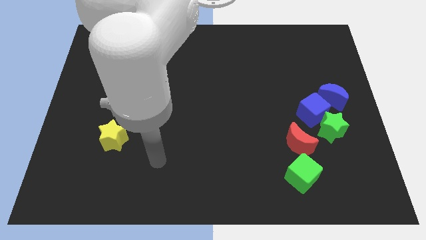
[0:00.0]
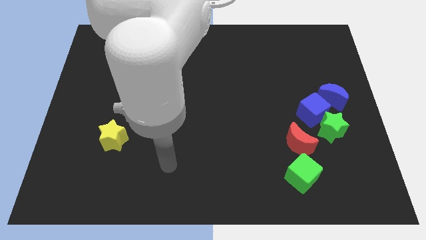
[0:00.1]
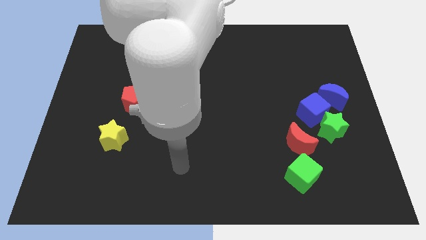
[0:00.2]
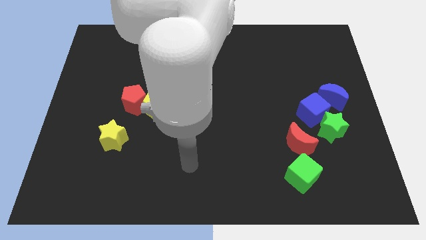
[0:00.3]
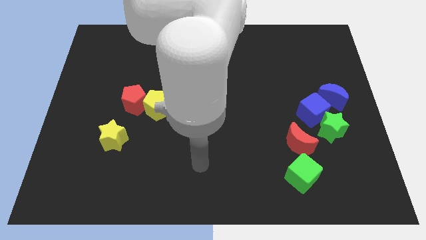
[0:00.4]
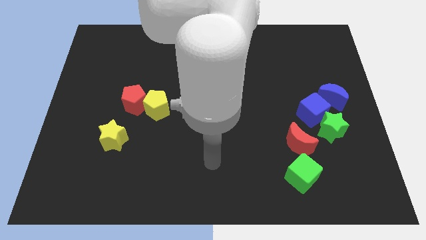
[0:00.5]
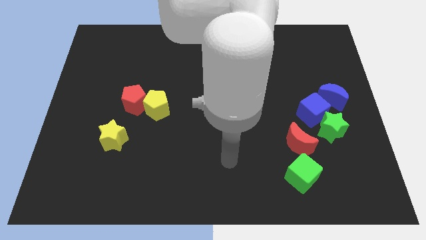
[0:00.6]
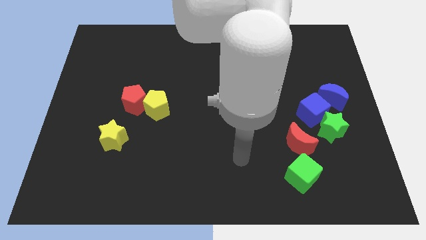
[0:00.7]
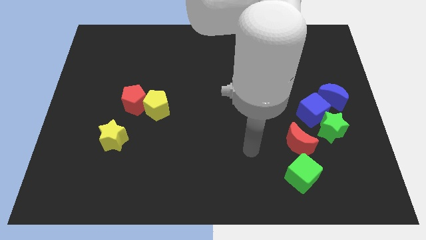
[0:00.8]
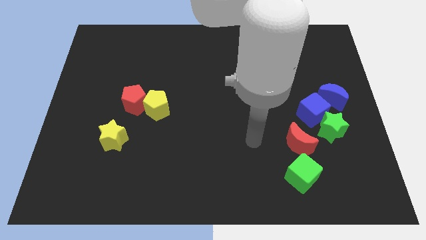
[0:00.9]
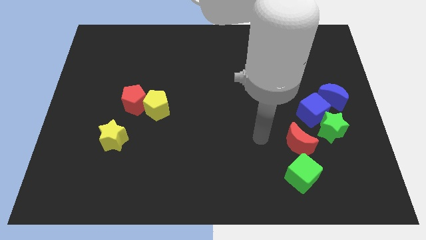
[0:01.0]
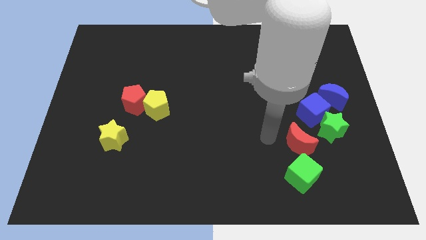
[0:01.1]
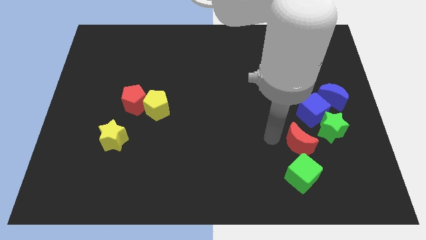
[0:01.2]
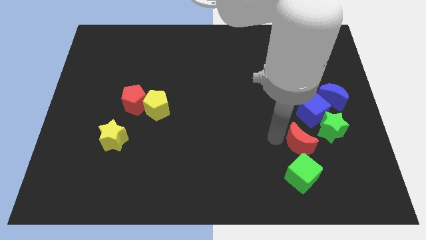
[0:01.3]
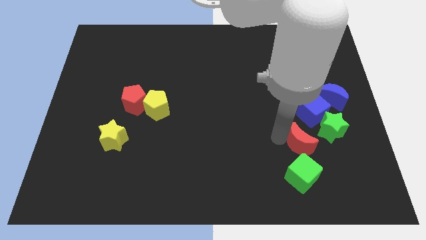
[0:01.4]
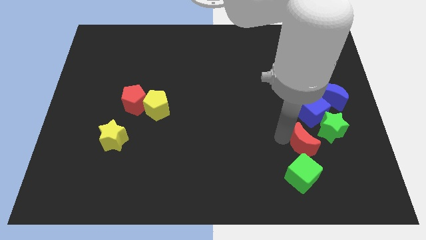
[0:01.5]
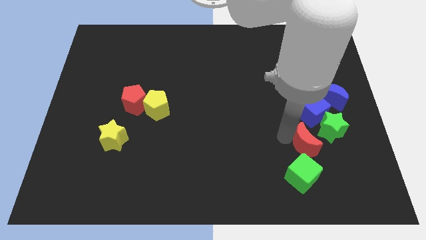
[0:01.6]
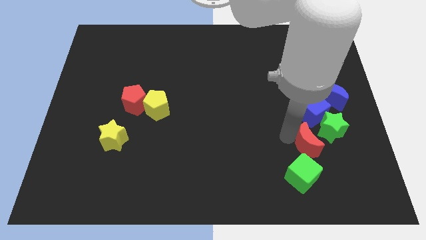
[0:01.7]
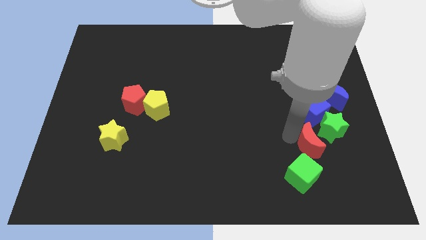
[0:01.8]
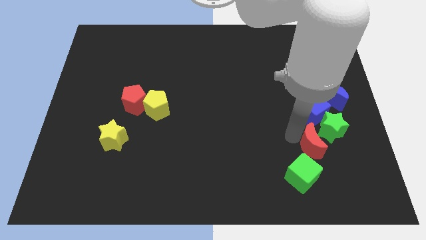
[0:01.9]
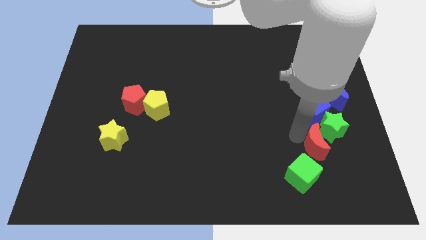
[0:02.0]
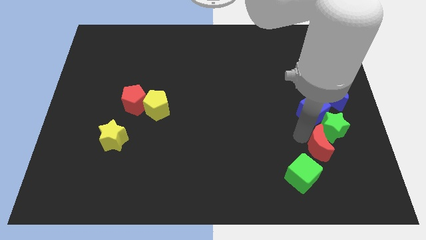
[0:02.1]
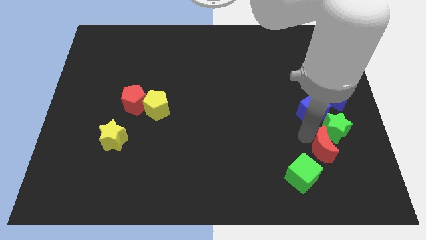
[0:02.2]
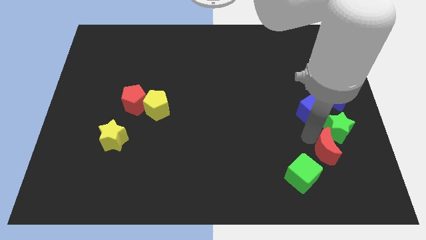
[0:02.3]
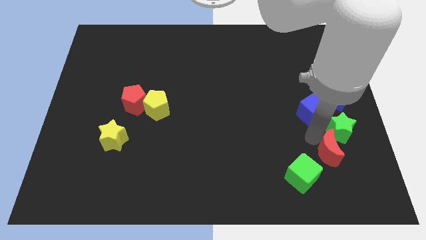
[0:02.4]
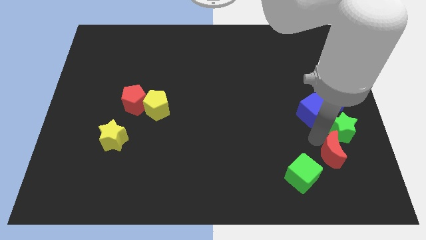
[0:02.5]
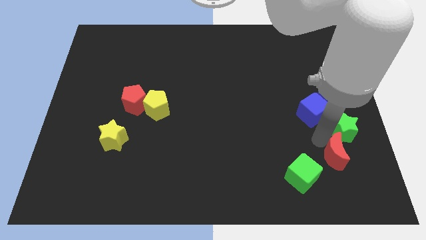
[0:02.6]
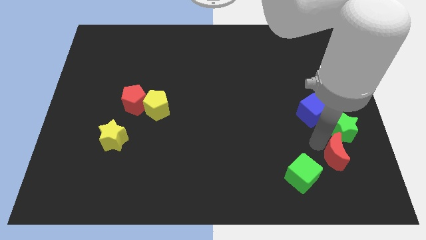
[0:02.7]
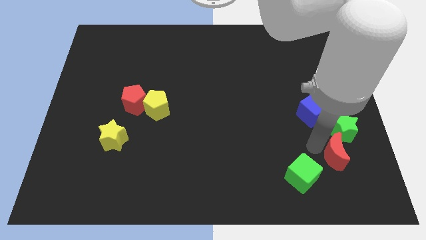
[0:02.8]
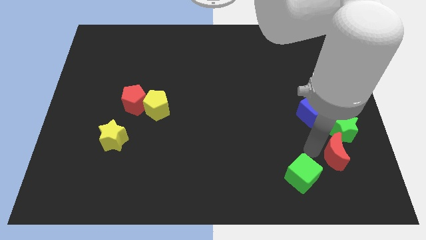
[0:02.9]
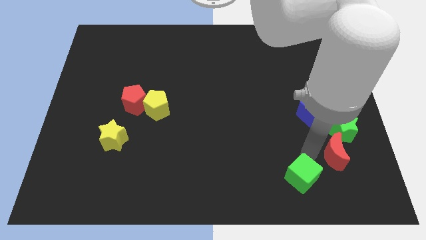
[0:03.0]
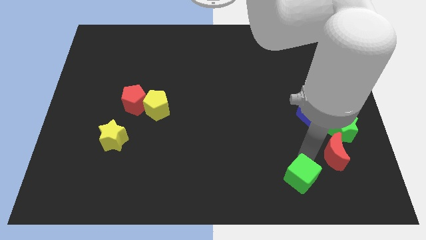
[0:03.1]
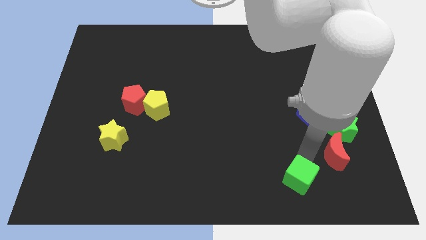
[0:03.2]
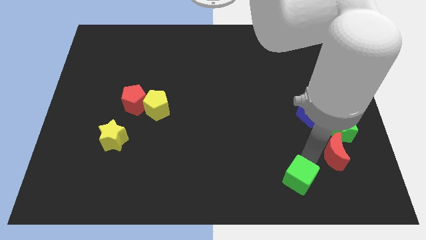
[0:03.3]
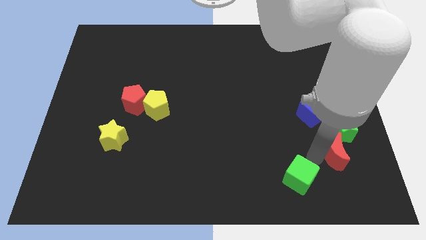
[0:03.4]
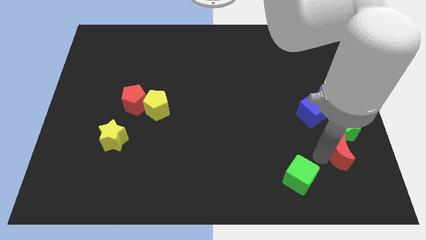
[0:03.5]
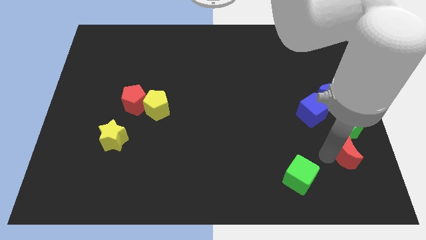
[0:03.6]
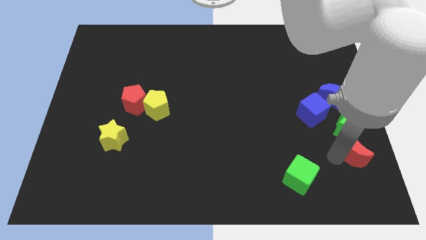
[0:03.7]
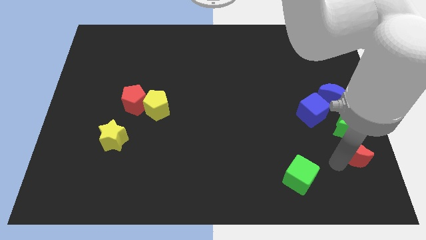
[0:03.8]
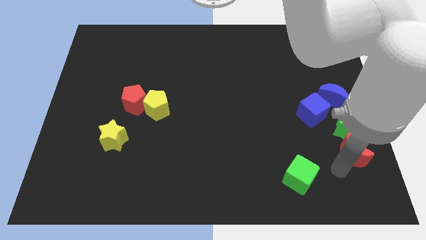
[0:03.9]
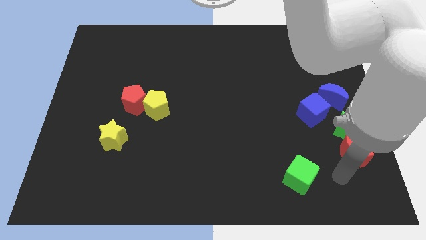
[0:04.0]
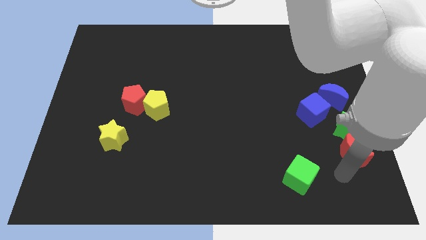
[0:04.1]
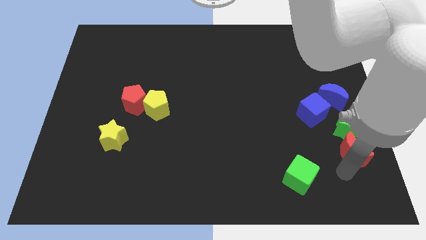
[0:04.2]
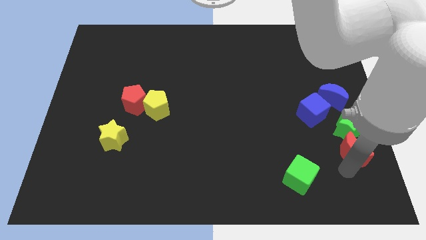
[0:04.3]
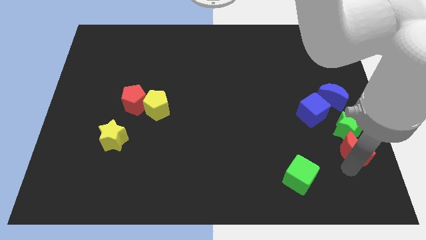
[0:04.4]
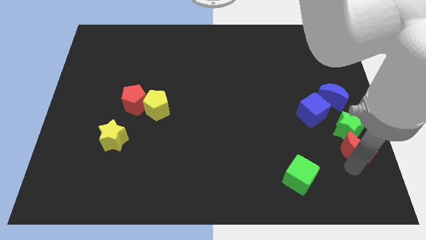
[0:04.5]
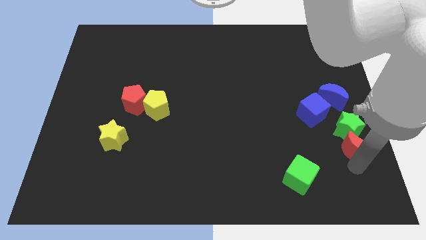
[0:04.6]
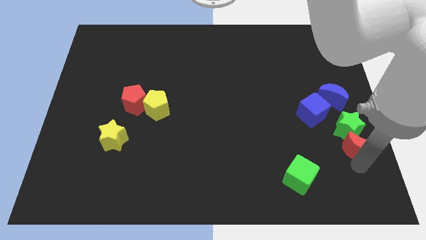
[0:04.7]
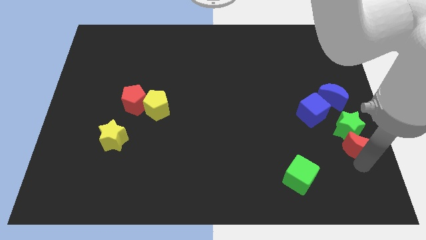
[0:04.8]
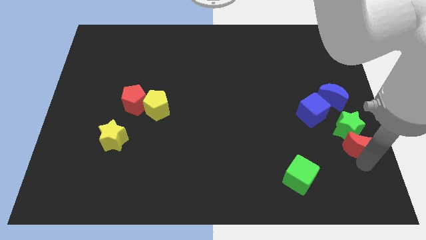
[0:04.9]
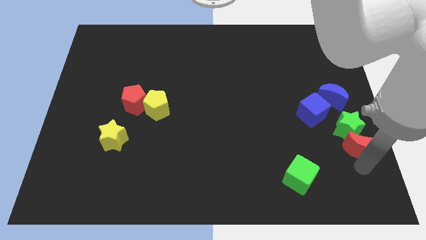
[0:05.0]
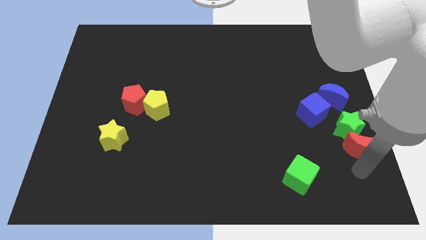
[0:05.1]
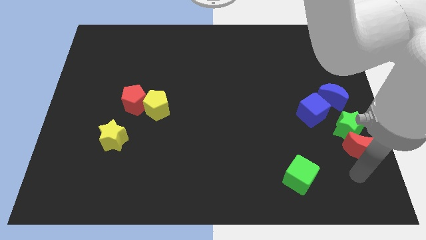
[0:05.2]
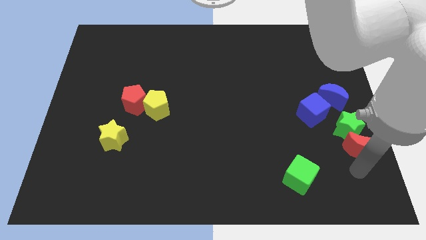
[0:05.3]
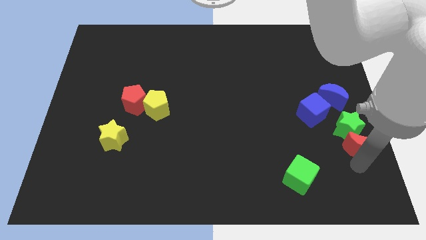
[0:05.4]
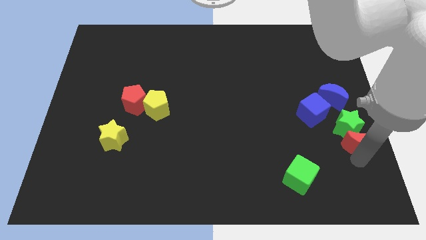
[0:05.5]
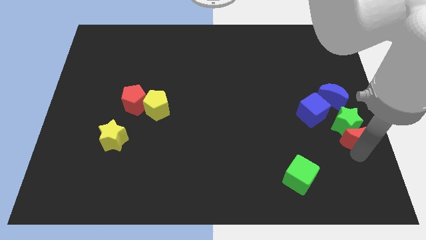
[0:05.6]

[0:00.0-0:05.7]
push the red moon to the center right

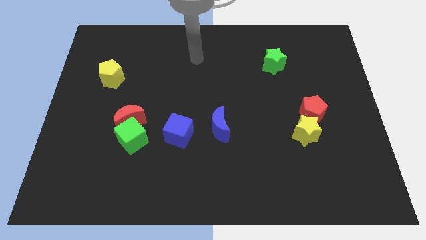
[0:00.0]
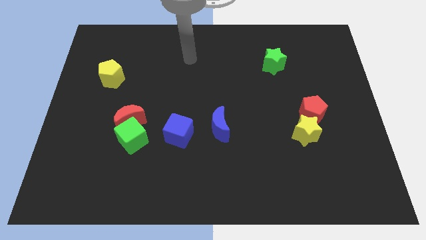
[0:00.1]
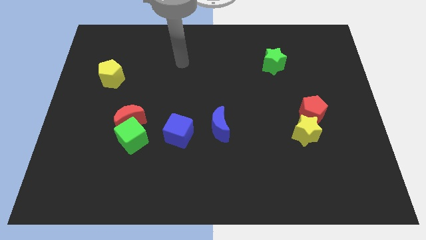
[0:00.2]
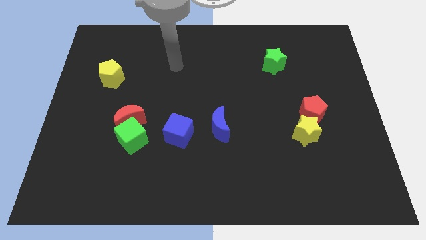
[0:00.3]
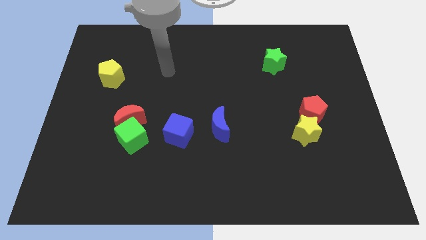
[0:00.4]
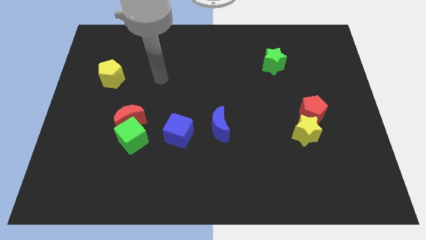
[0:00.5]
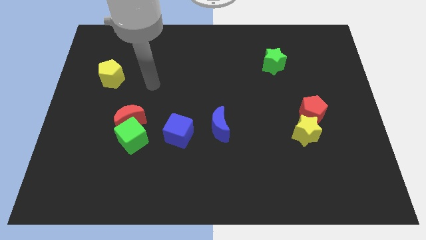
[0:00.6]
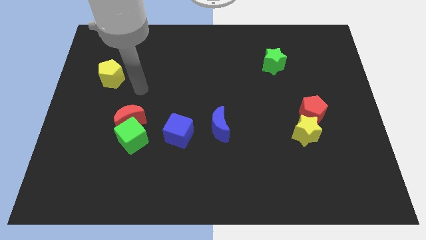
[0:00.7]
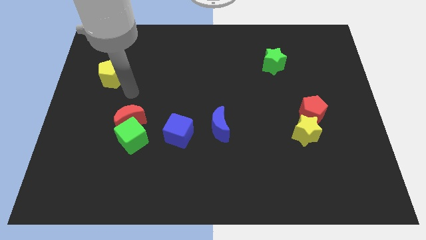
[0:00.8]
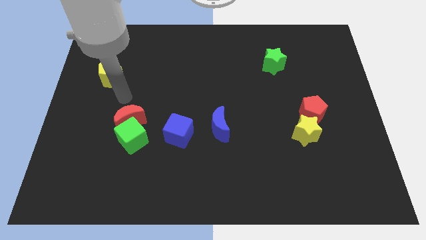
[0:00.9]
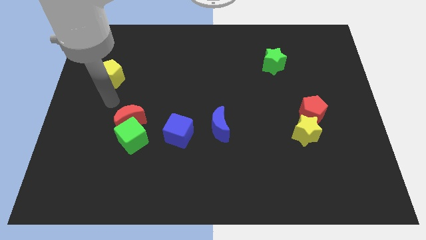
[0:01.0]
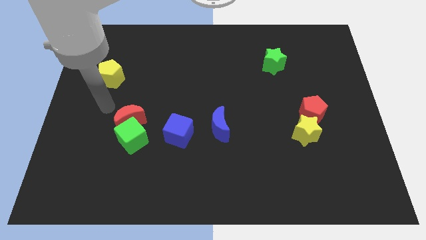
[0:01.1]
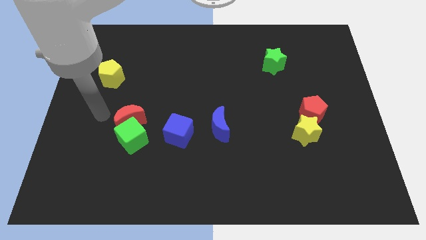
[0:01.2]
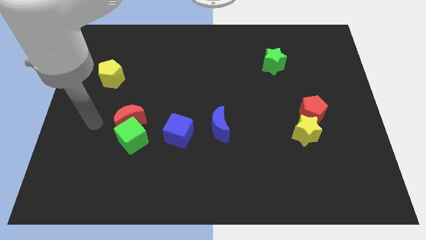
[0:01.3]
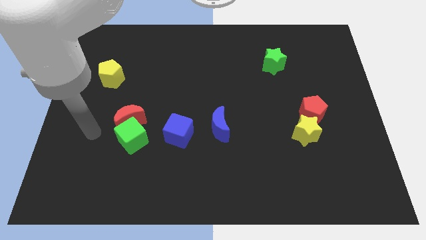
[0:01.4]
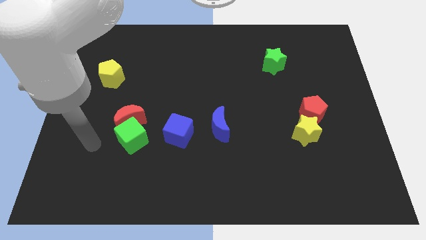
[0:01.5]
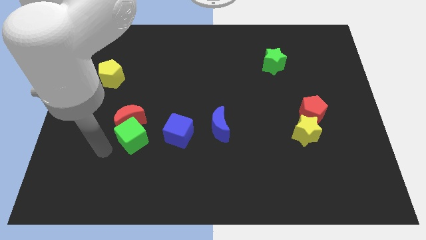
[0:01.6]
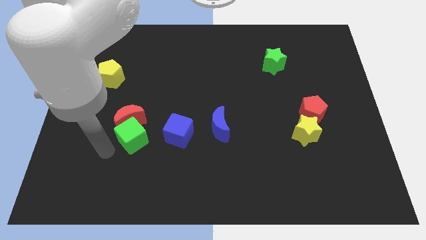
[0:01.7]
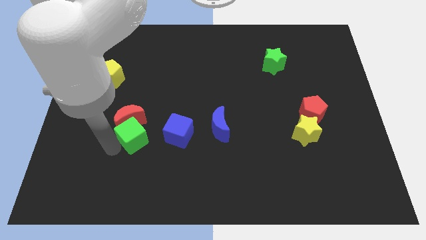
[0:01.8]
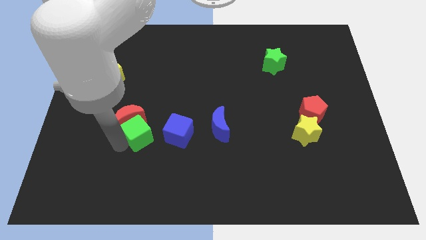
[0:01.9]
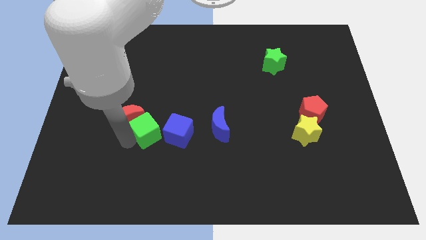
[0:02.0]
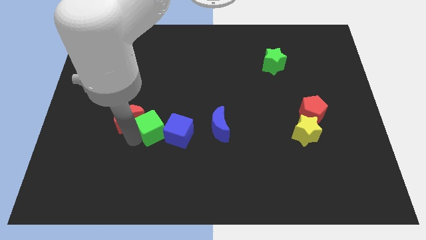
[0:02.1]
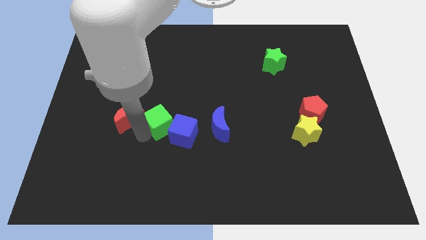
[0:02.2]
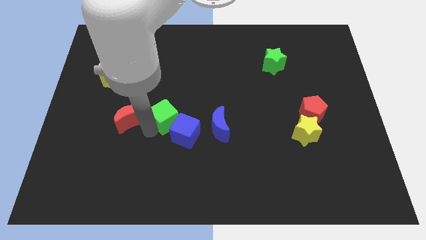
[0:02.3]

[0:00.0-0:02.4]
move the green cube to the center
